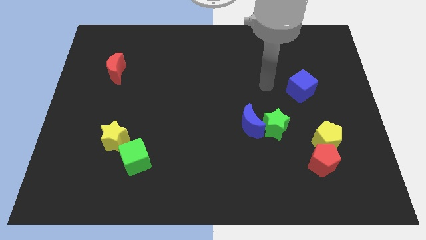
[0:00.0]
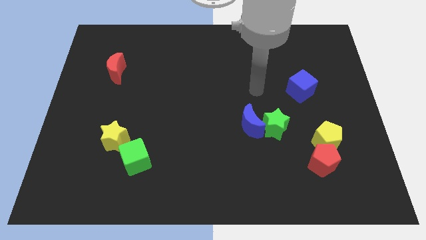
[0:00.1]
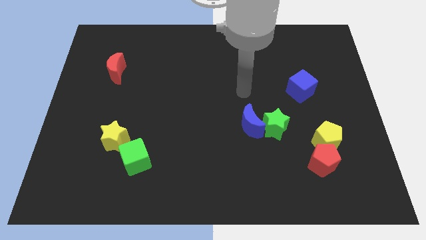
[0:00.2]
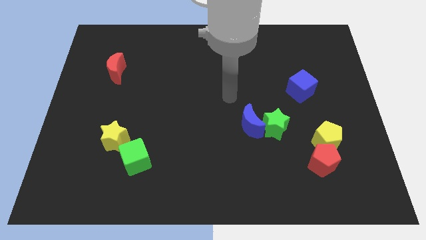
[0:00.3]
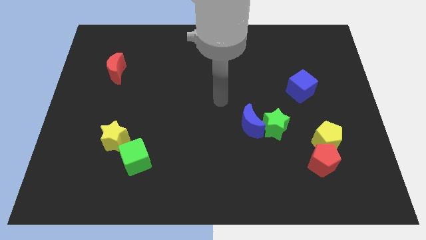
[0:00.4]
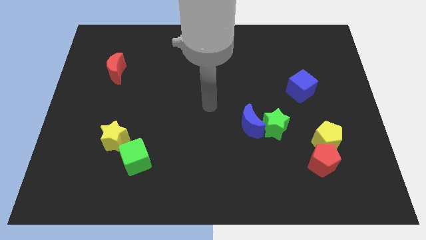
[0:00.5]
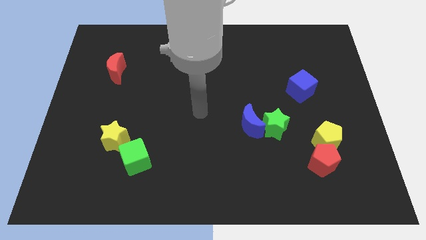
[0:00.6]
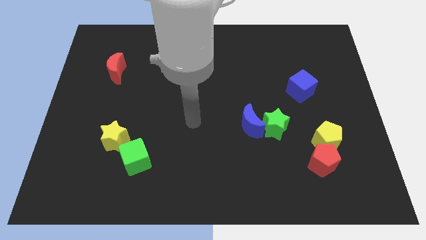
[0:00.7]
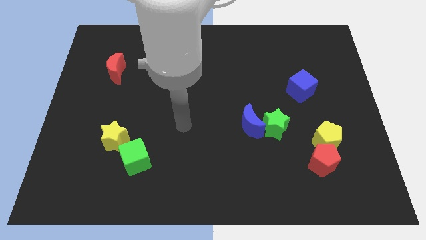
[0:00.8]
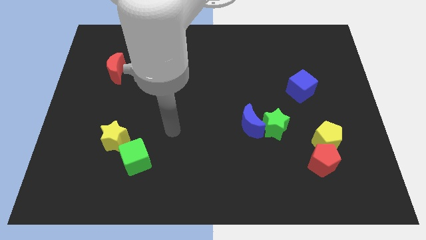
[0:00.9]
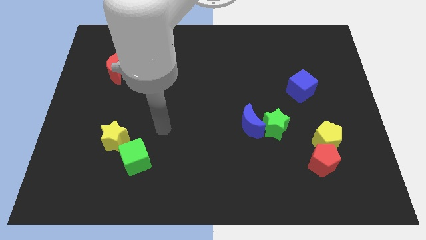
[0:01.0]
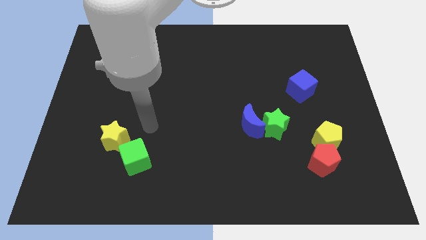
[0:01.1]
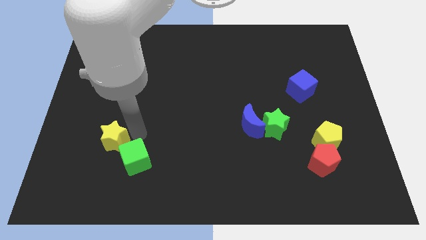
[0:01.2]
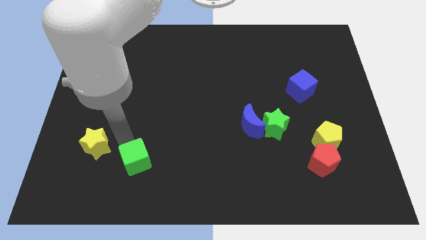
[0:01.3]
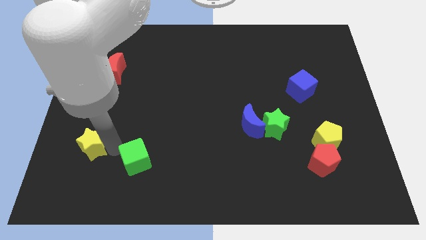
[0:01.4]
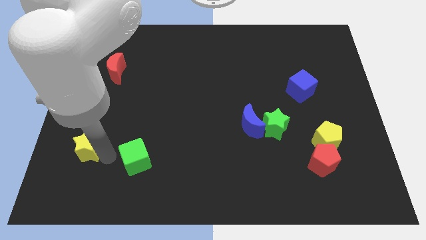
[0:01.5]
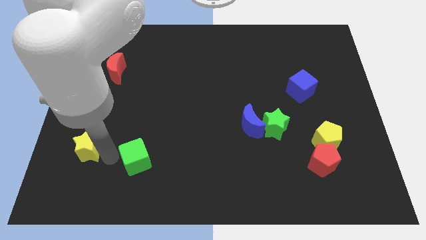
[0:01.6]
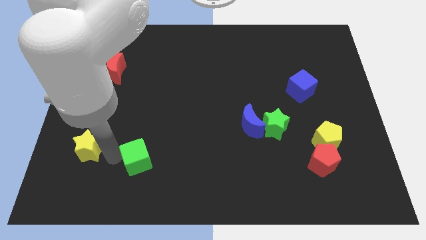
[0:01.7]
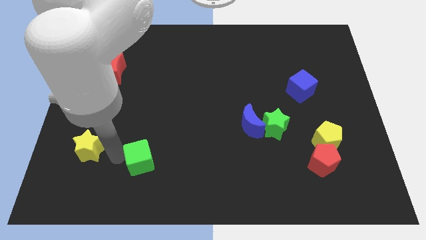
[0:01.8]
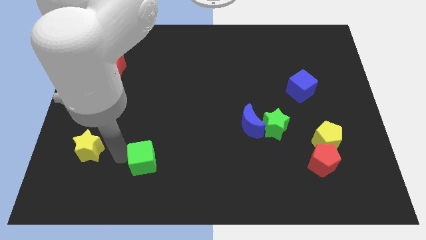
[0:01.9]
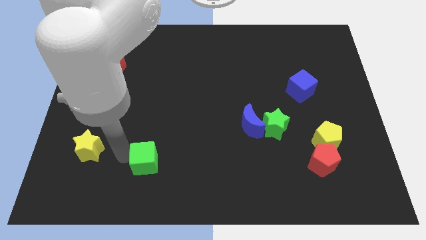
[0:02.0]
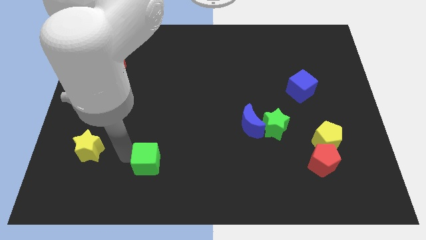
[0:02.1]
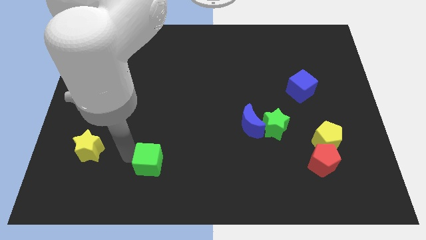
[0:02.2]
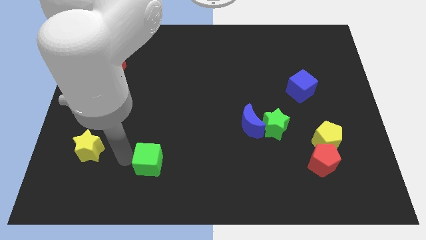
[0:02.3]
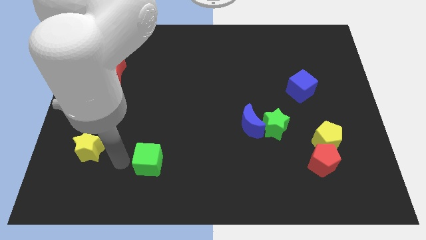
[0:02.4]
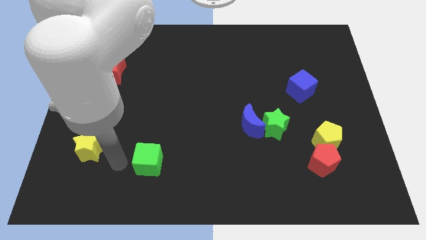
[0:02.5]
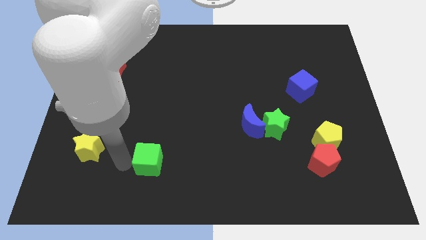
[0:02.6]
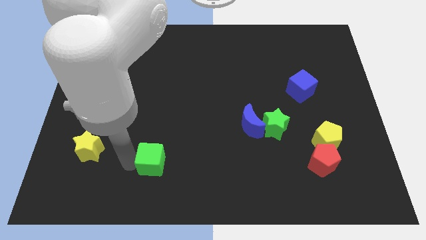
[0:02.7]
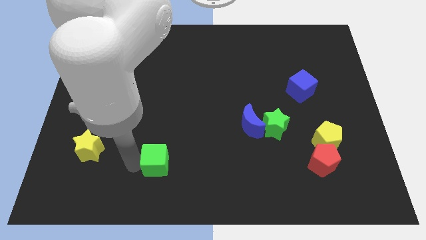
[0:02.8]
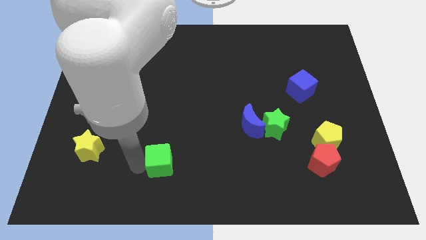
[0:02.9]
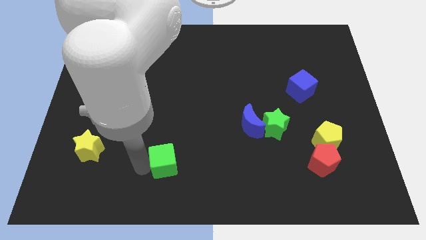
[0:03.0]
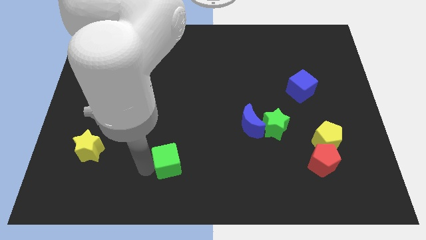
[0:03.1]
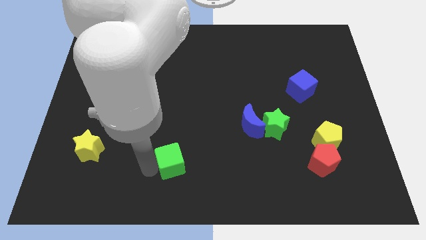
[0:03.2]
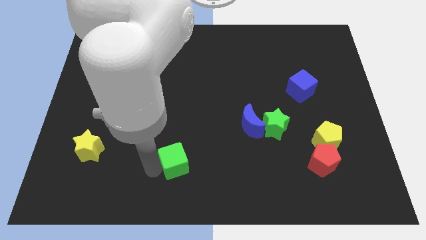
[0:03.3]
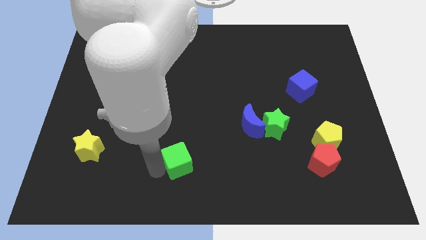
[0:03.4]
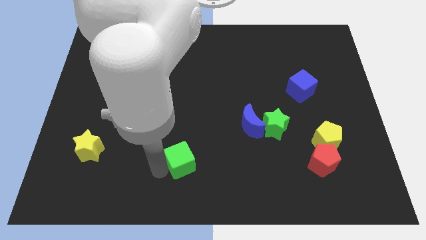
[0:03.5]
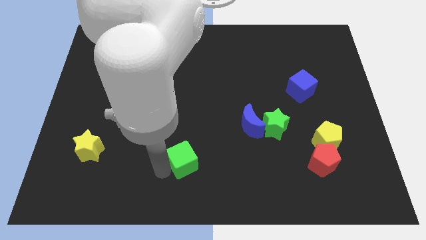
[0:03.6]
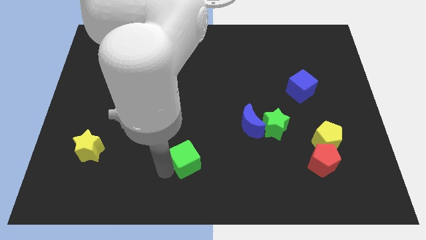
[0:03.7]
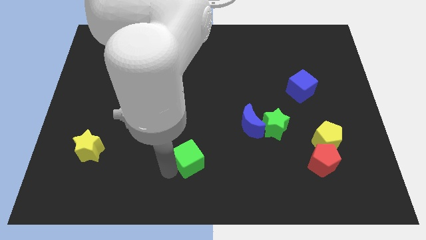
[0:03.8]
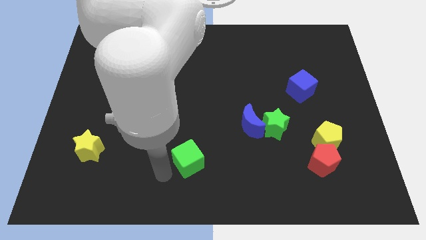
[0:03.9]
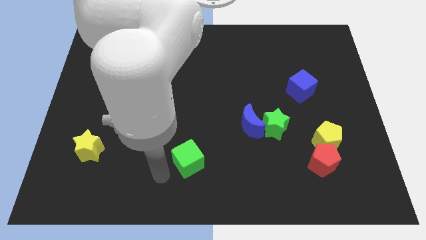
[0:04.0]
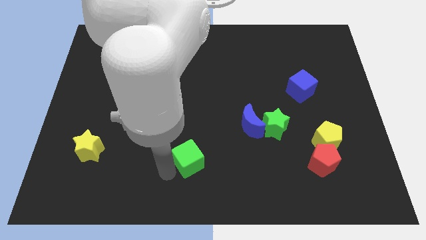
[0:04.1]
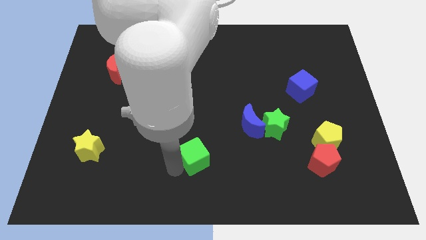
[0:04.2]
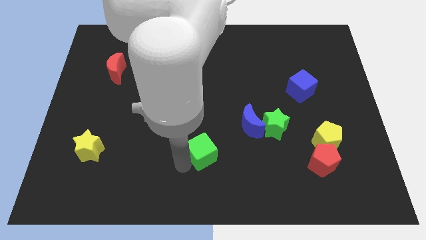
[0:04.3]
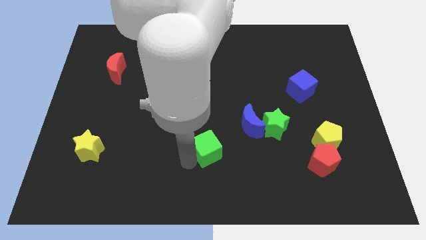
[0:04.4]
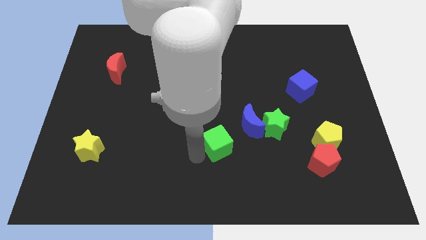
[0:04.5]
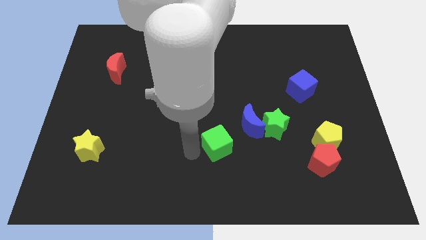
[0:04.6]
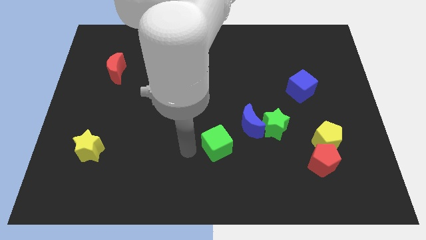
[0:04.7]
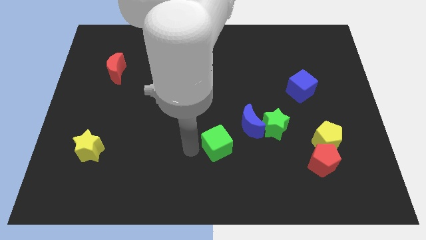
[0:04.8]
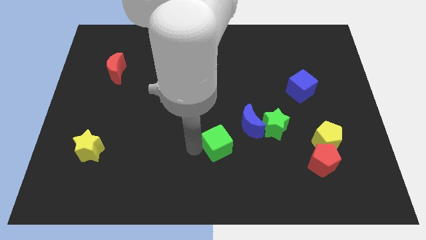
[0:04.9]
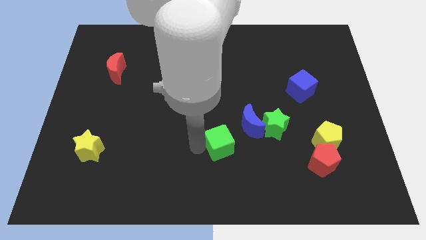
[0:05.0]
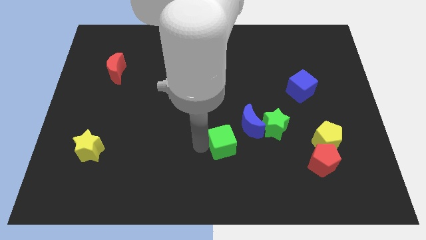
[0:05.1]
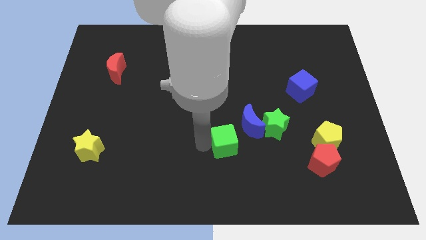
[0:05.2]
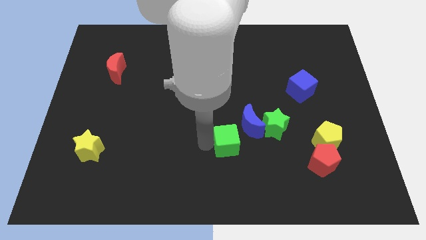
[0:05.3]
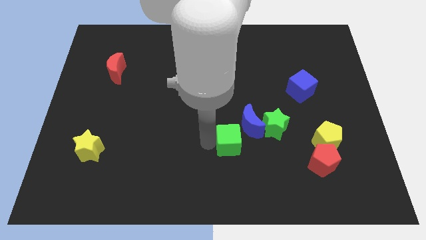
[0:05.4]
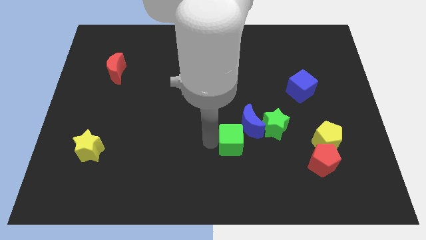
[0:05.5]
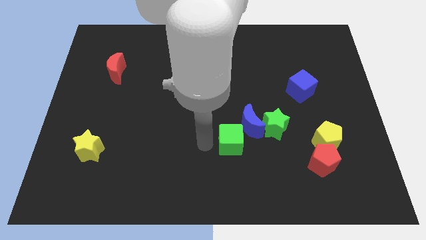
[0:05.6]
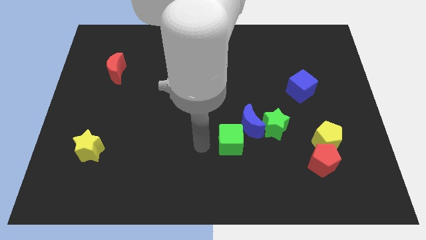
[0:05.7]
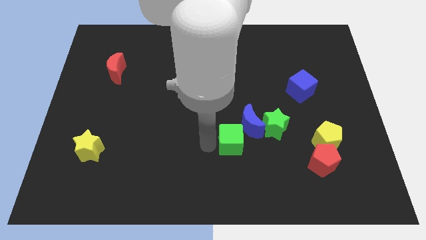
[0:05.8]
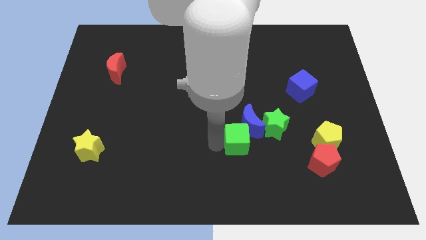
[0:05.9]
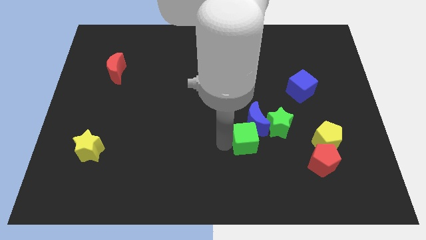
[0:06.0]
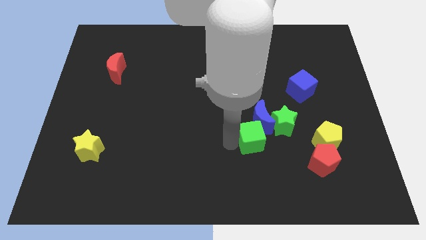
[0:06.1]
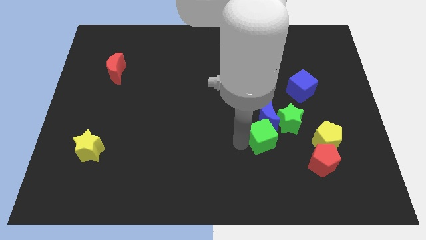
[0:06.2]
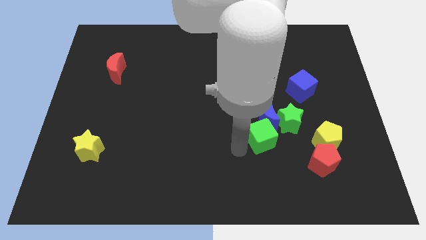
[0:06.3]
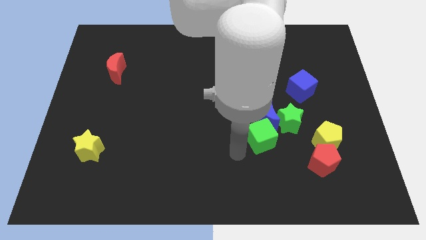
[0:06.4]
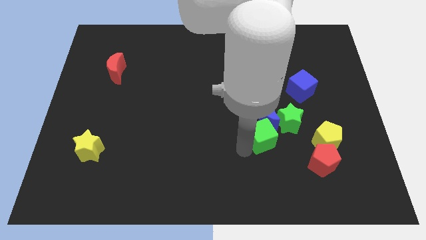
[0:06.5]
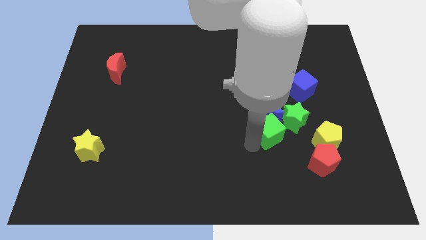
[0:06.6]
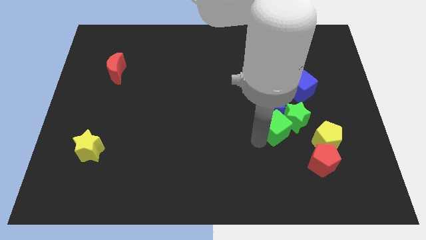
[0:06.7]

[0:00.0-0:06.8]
put the green cube to the green star

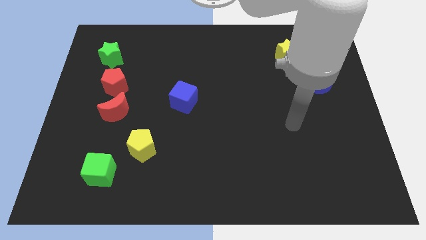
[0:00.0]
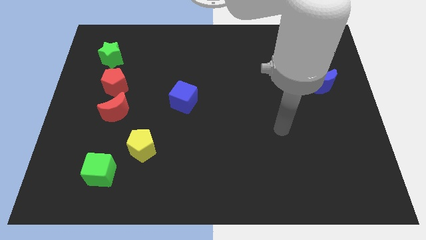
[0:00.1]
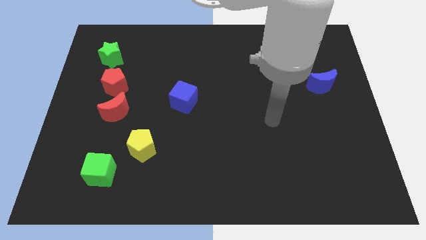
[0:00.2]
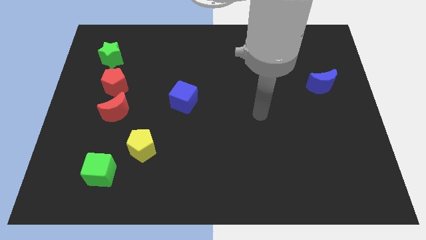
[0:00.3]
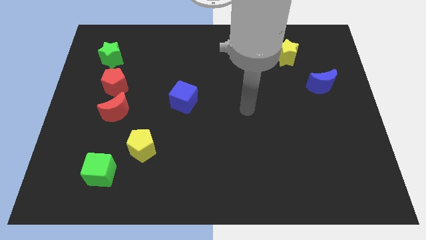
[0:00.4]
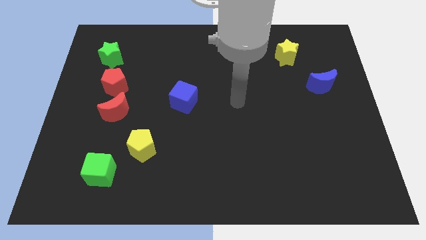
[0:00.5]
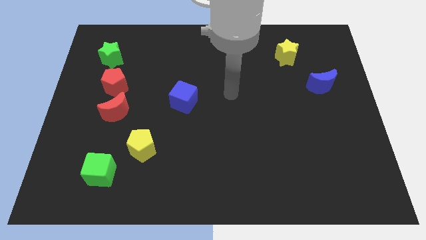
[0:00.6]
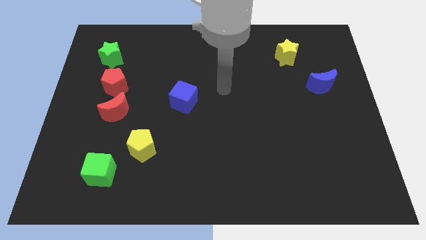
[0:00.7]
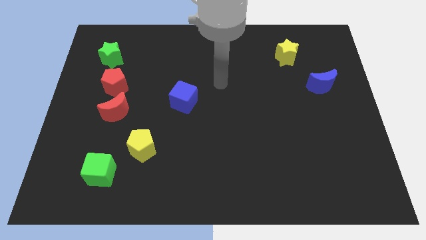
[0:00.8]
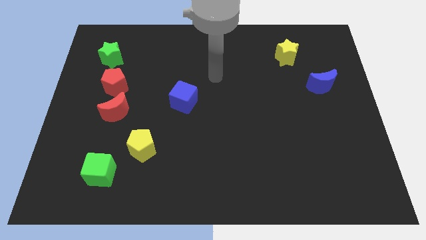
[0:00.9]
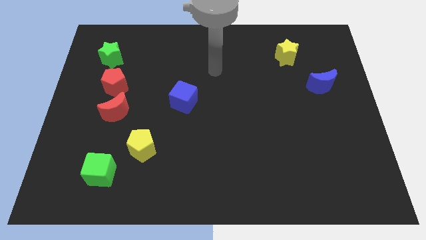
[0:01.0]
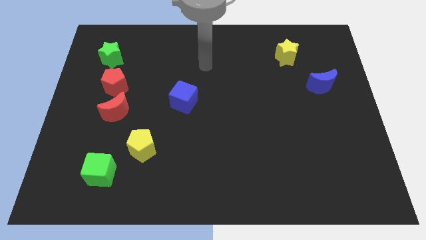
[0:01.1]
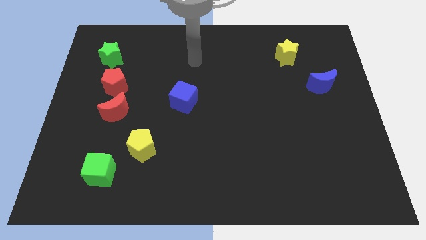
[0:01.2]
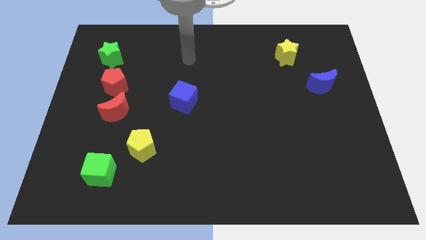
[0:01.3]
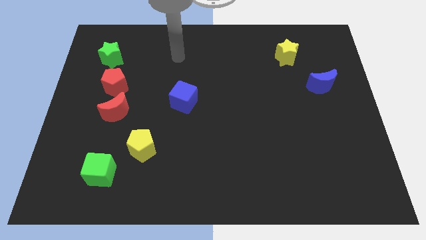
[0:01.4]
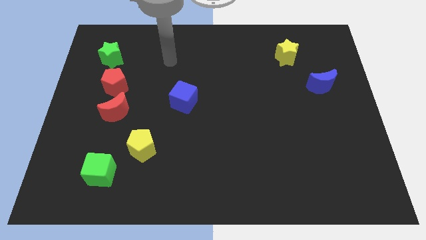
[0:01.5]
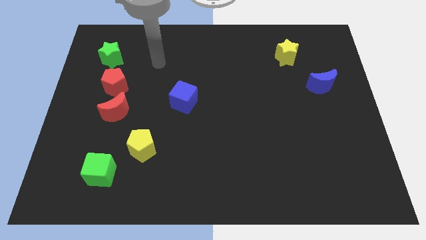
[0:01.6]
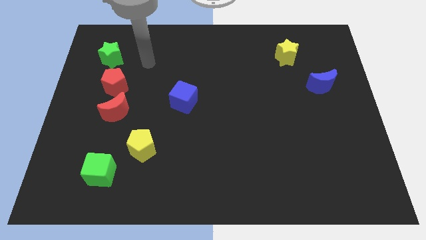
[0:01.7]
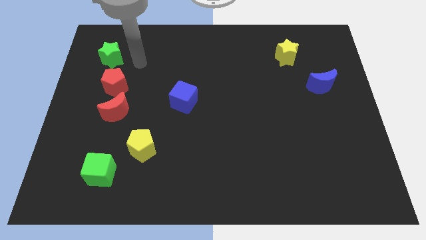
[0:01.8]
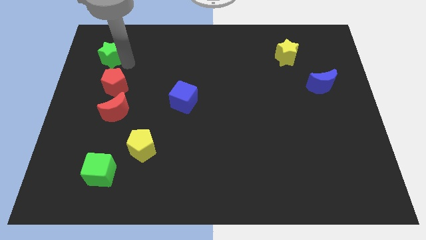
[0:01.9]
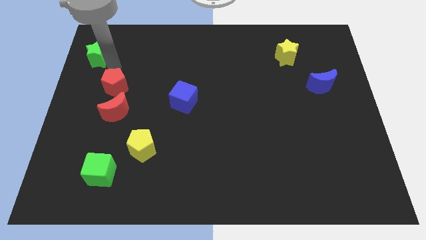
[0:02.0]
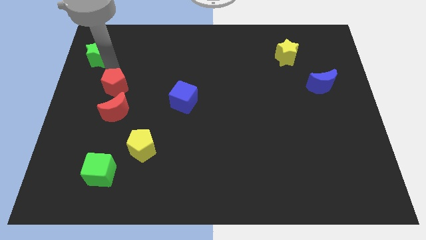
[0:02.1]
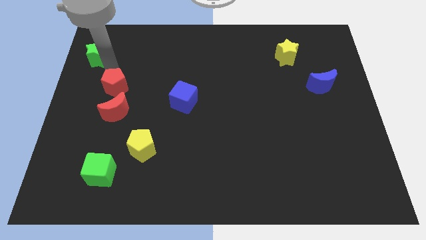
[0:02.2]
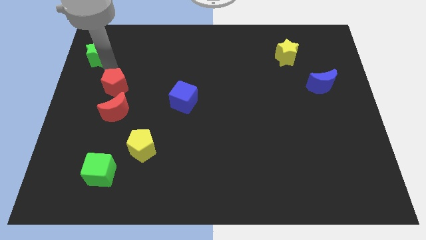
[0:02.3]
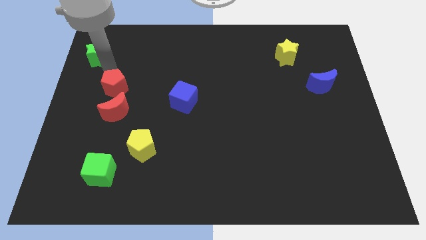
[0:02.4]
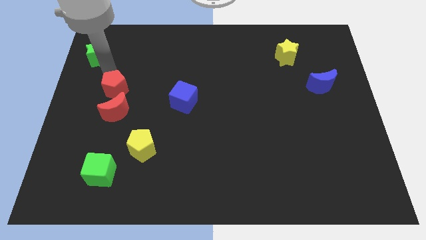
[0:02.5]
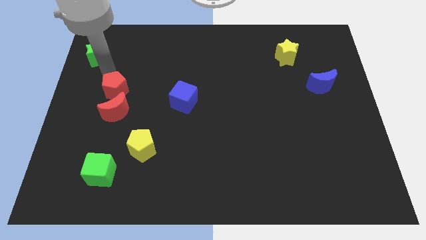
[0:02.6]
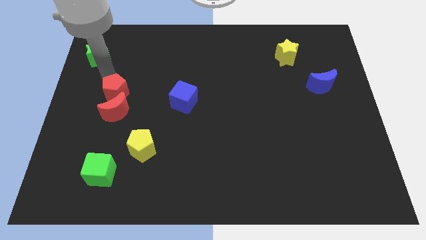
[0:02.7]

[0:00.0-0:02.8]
push the red pentagon close to the red moon
